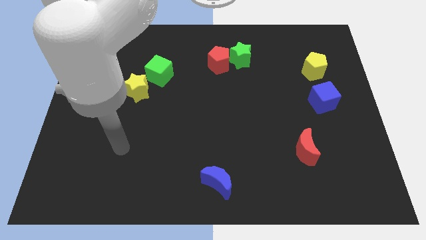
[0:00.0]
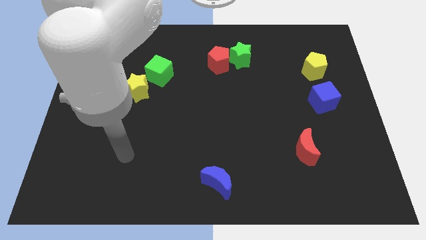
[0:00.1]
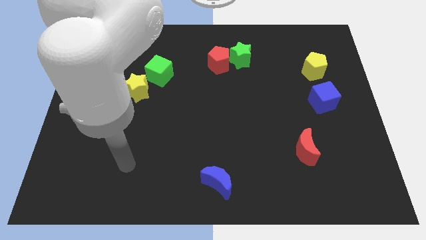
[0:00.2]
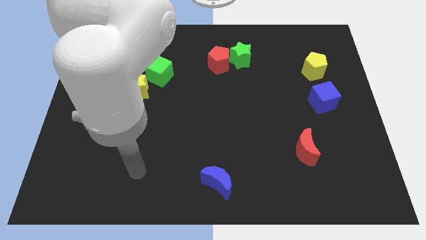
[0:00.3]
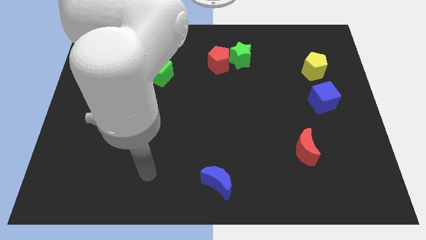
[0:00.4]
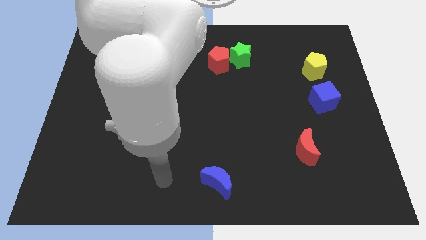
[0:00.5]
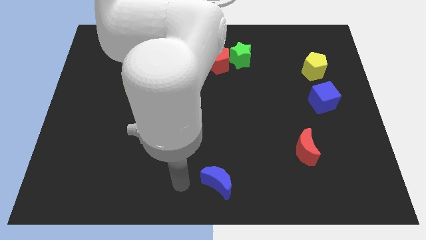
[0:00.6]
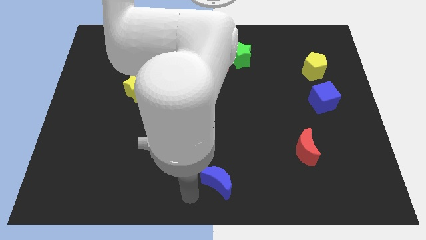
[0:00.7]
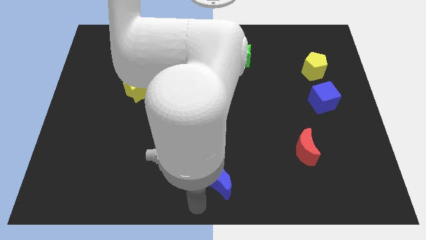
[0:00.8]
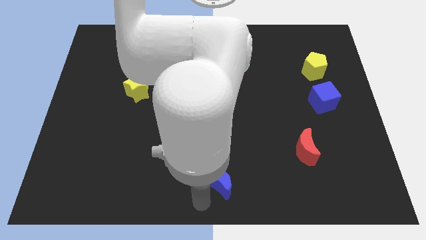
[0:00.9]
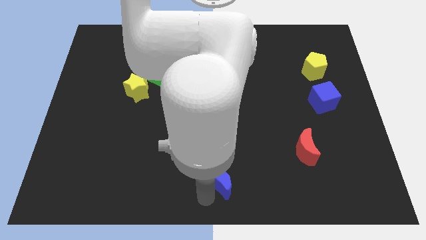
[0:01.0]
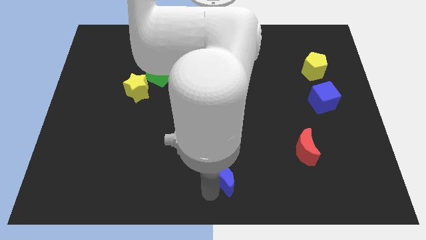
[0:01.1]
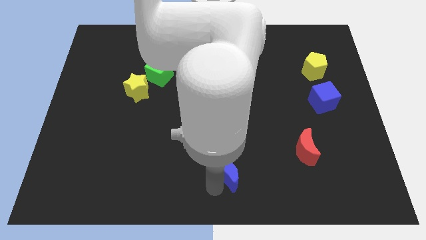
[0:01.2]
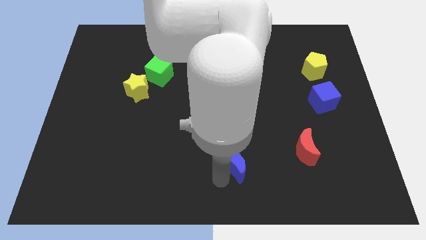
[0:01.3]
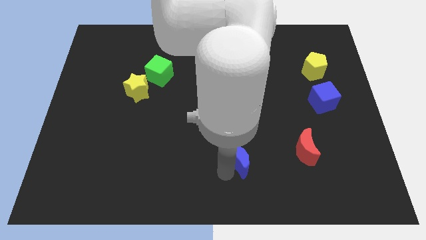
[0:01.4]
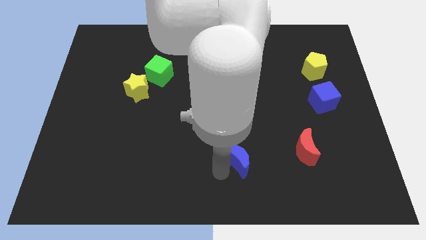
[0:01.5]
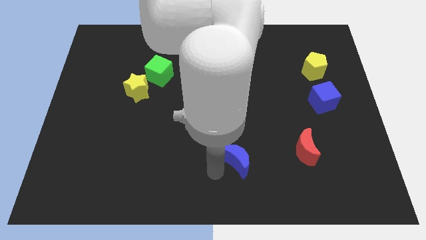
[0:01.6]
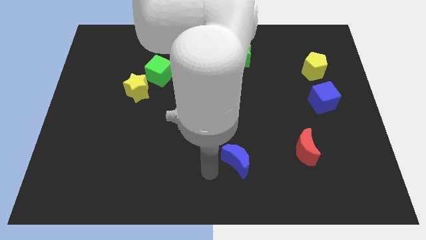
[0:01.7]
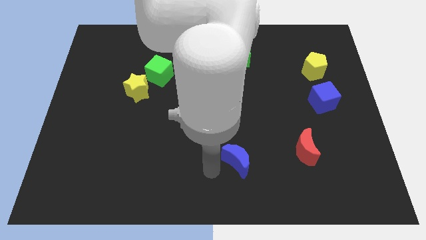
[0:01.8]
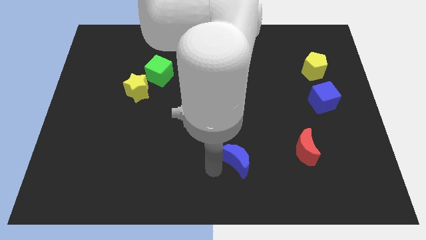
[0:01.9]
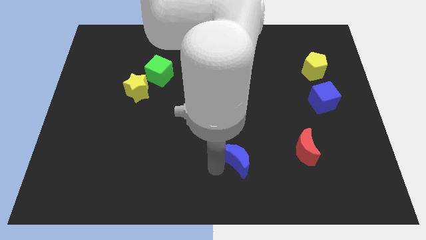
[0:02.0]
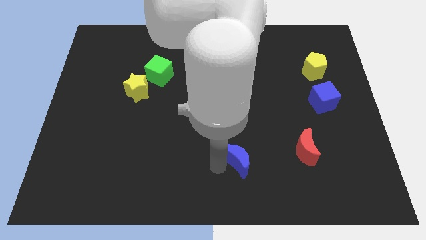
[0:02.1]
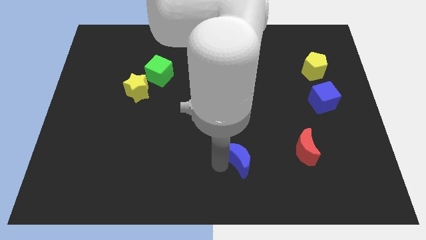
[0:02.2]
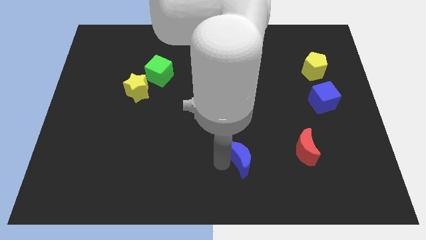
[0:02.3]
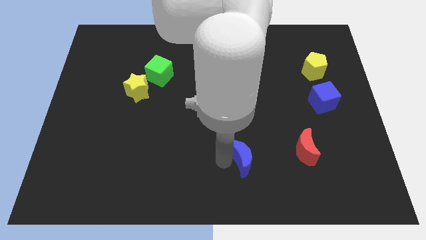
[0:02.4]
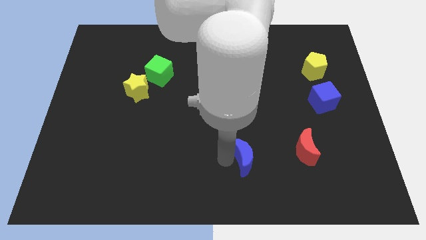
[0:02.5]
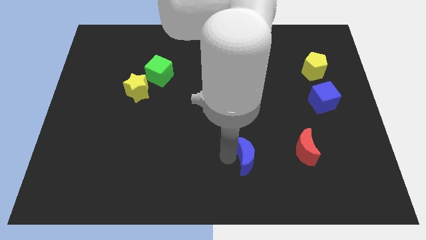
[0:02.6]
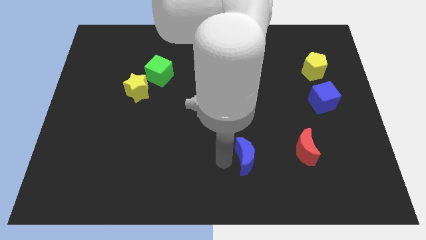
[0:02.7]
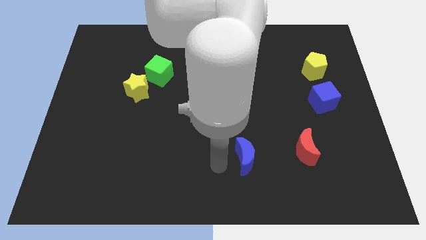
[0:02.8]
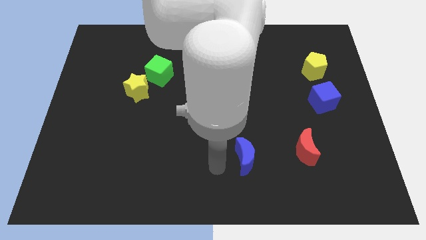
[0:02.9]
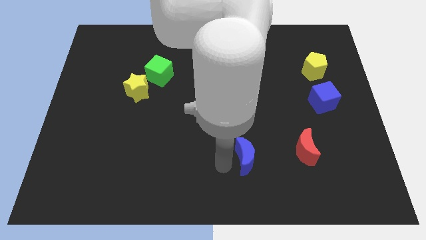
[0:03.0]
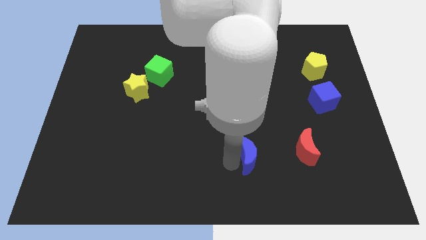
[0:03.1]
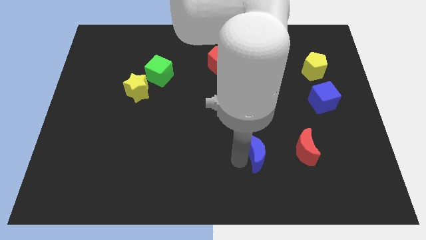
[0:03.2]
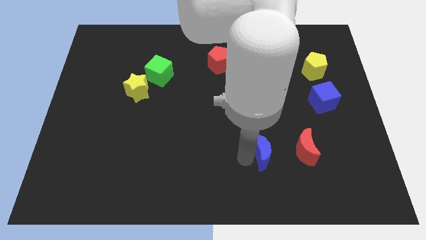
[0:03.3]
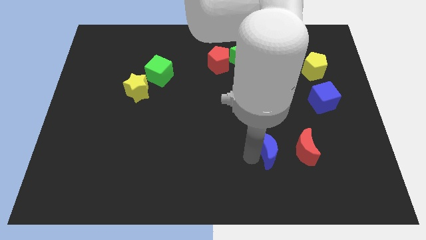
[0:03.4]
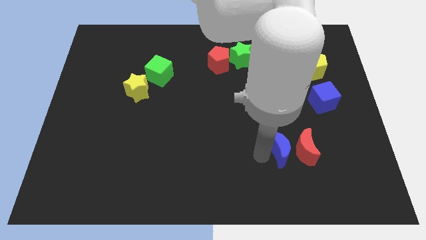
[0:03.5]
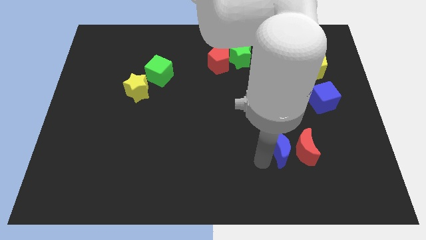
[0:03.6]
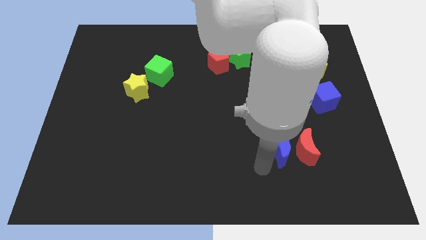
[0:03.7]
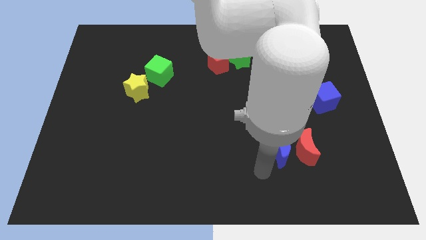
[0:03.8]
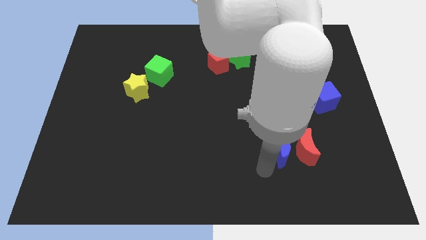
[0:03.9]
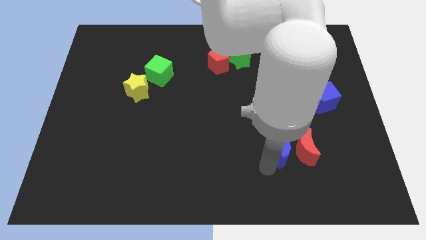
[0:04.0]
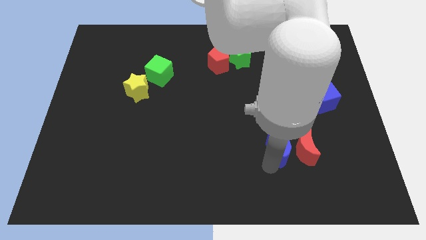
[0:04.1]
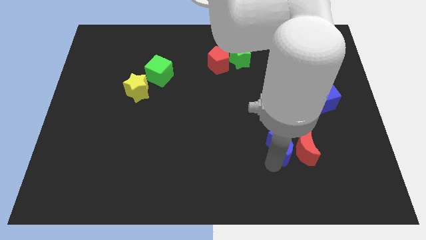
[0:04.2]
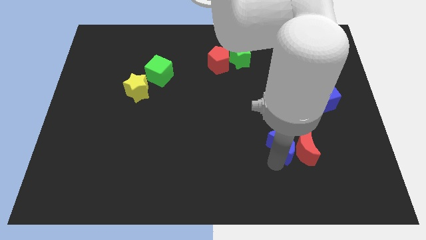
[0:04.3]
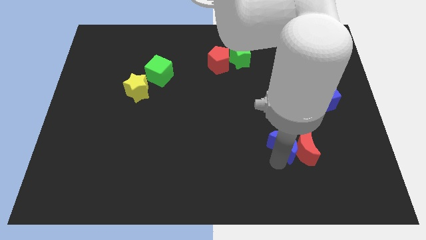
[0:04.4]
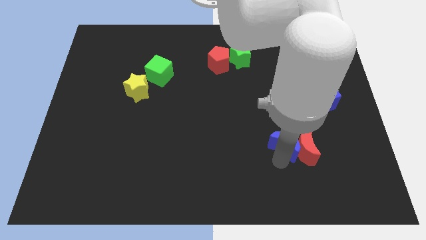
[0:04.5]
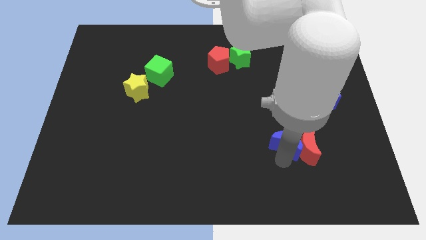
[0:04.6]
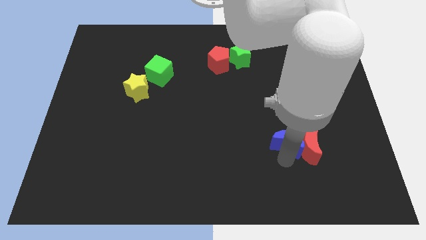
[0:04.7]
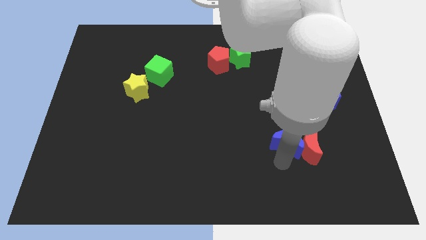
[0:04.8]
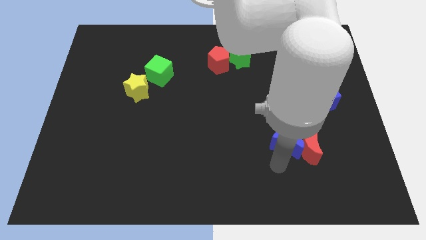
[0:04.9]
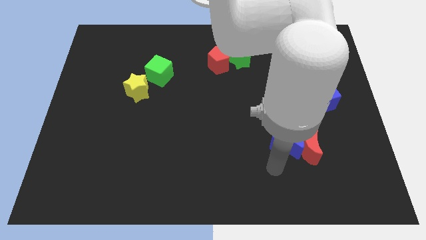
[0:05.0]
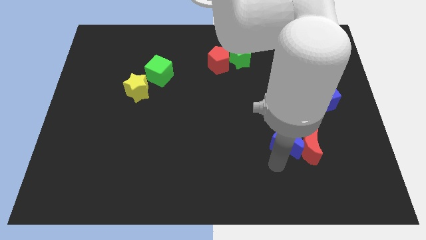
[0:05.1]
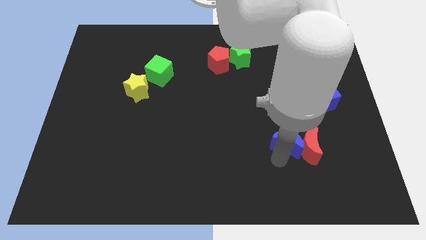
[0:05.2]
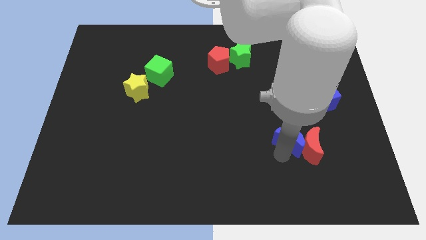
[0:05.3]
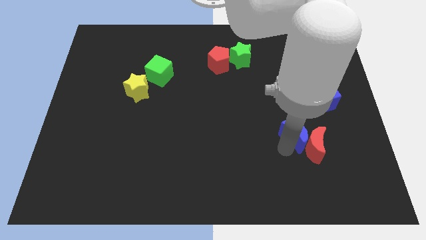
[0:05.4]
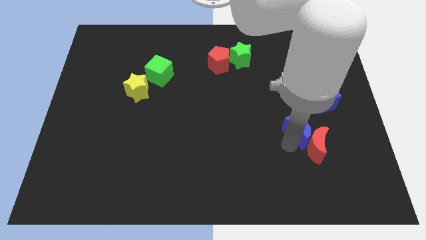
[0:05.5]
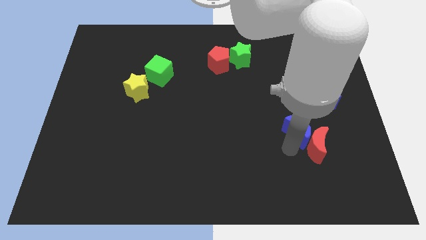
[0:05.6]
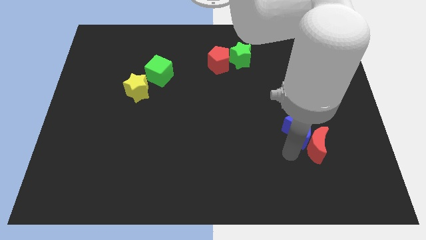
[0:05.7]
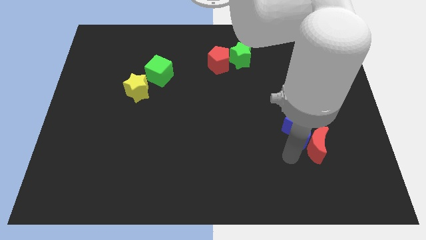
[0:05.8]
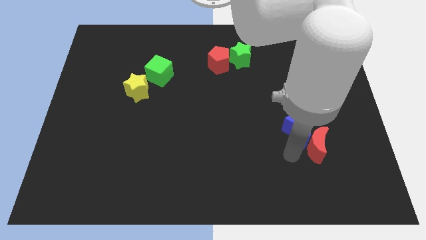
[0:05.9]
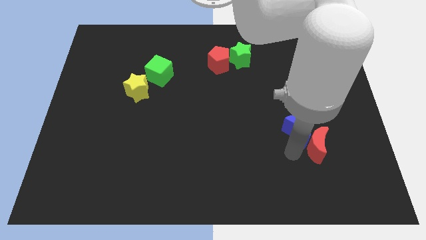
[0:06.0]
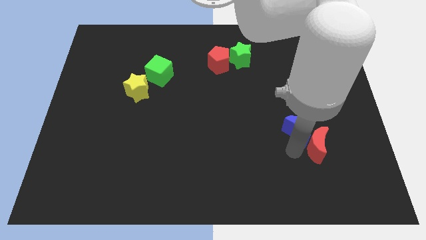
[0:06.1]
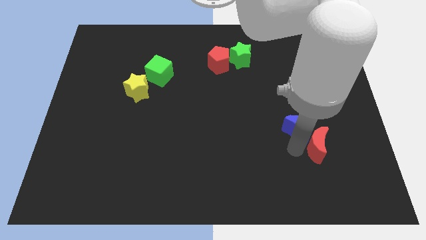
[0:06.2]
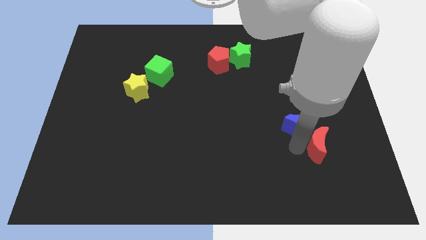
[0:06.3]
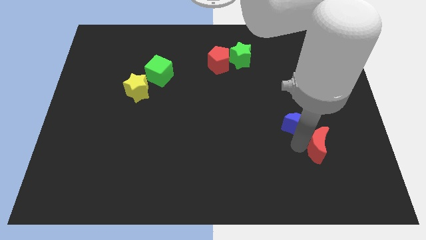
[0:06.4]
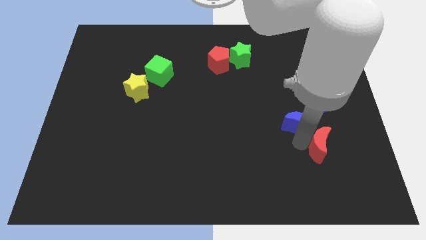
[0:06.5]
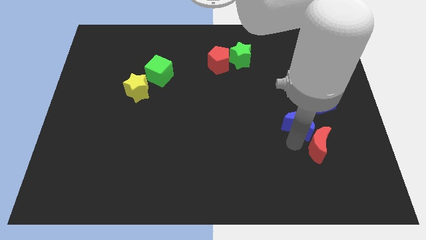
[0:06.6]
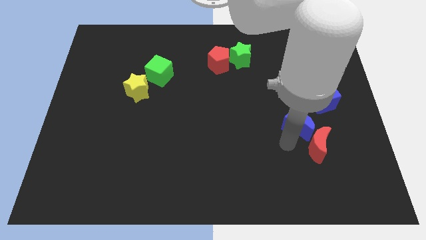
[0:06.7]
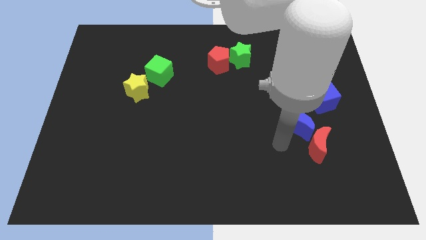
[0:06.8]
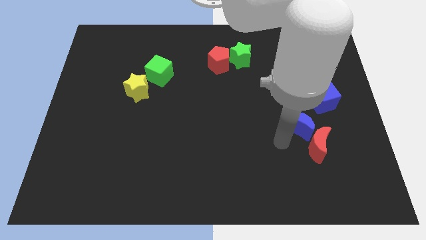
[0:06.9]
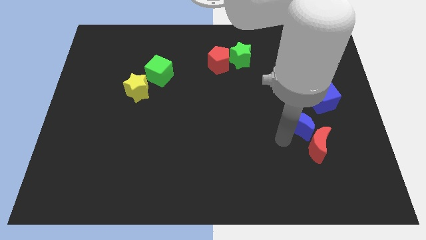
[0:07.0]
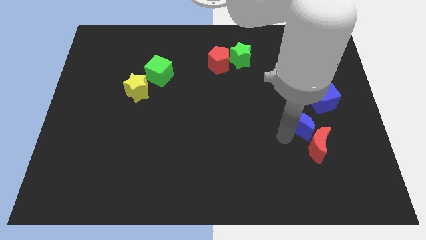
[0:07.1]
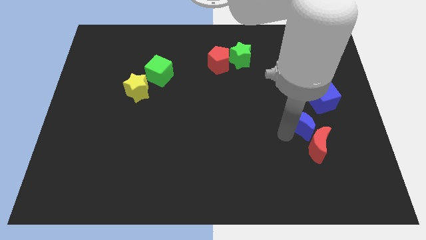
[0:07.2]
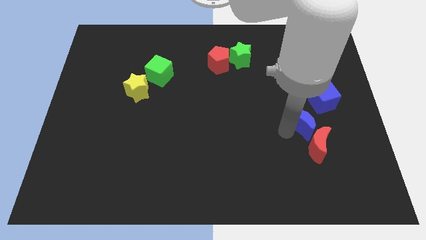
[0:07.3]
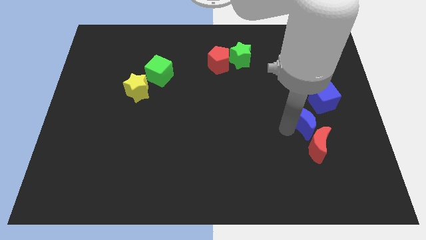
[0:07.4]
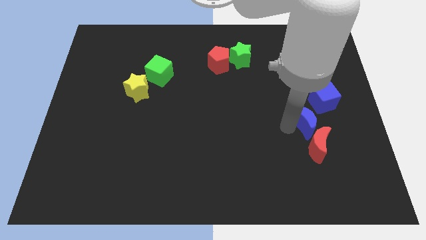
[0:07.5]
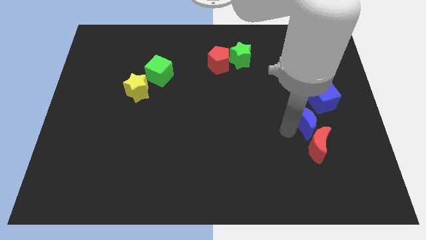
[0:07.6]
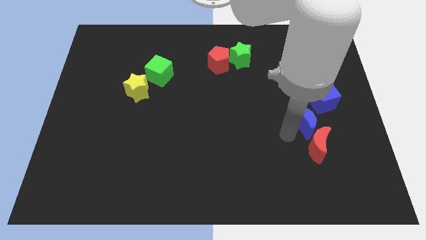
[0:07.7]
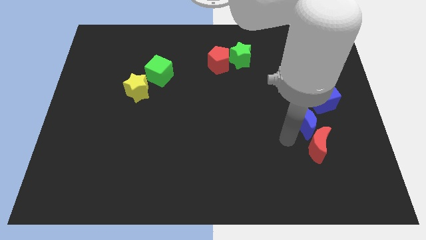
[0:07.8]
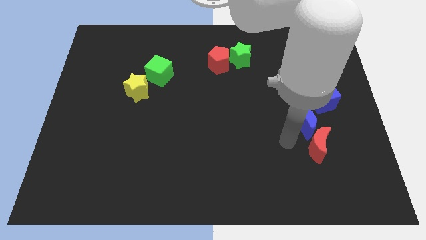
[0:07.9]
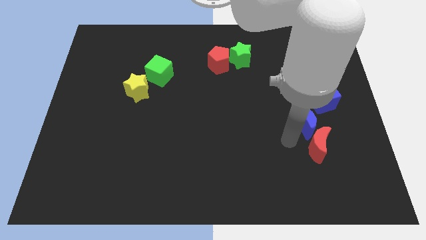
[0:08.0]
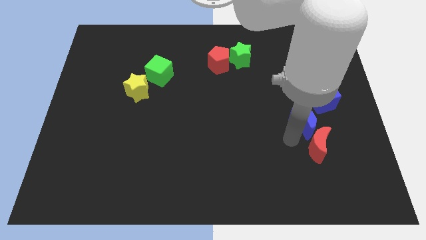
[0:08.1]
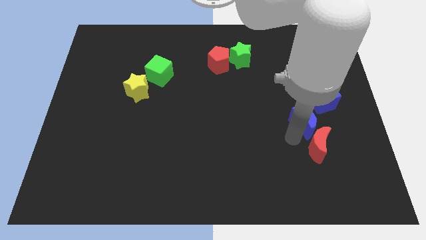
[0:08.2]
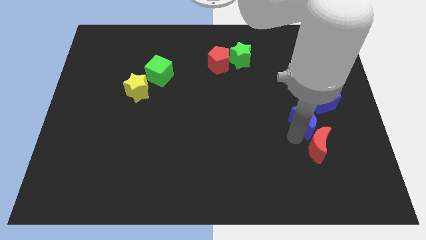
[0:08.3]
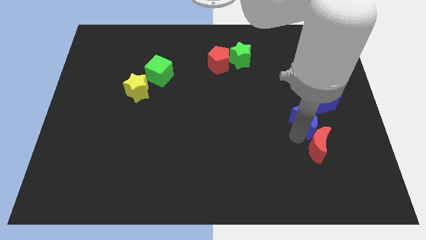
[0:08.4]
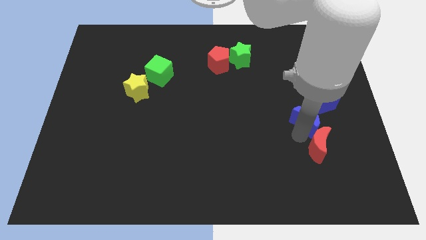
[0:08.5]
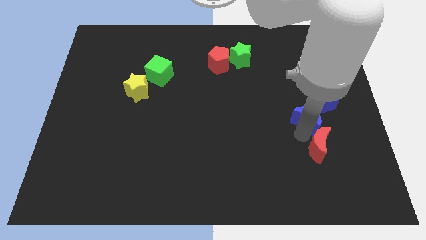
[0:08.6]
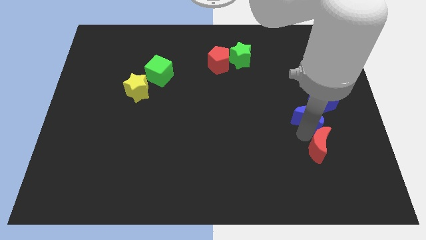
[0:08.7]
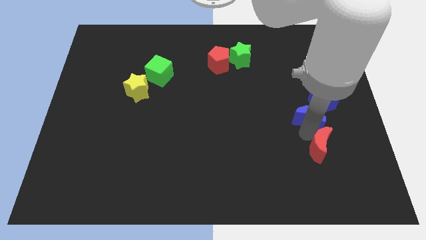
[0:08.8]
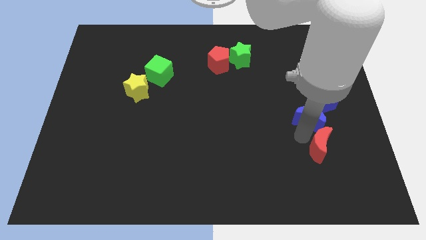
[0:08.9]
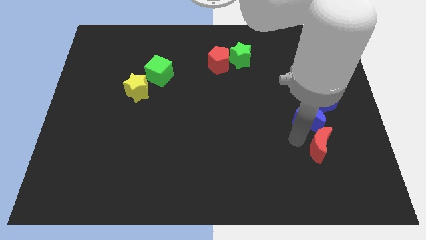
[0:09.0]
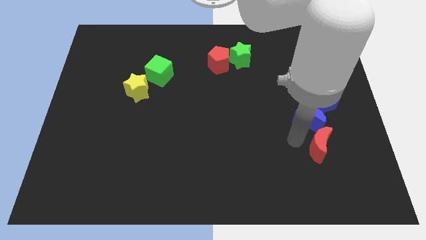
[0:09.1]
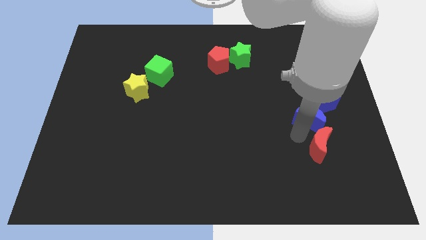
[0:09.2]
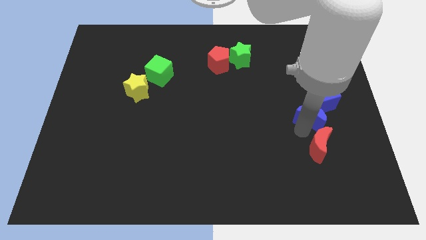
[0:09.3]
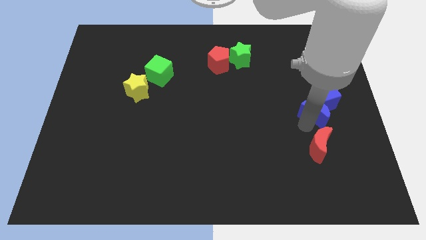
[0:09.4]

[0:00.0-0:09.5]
put the blue moon next to the blue cube
